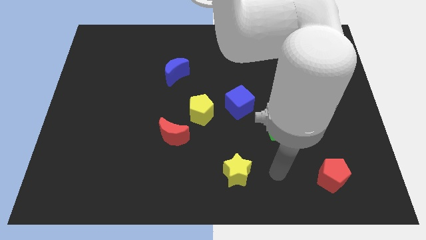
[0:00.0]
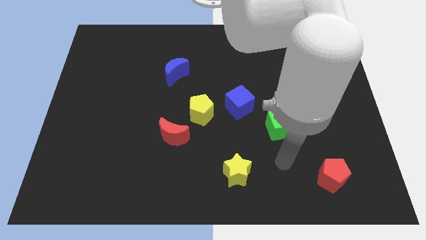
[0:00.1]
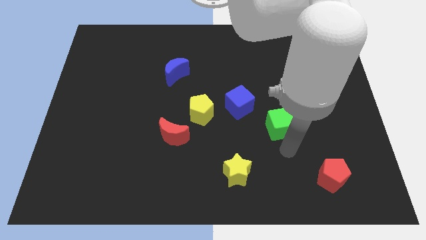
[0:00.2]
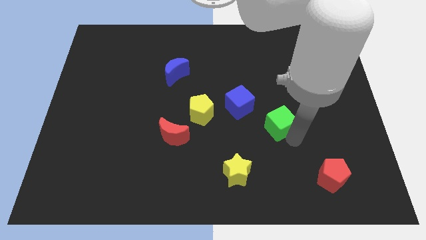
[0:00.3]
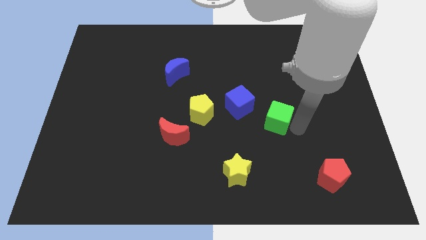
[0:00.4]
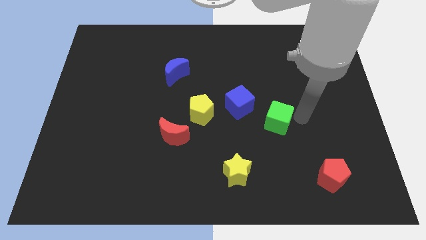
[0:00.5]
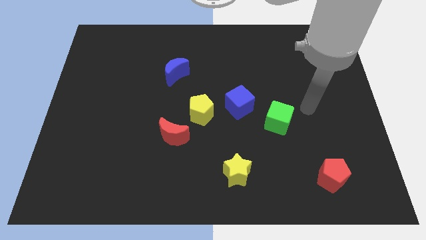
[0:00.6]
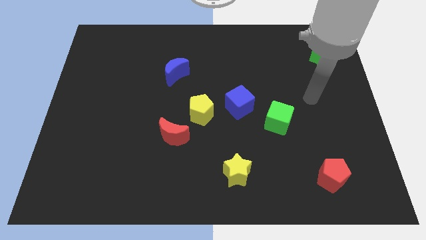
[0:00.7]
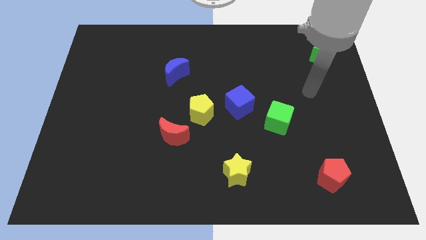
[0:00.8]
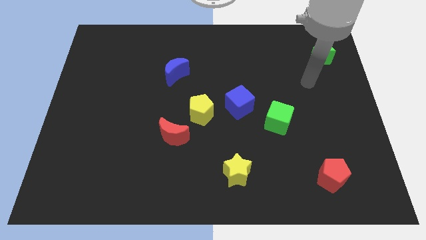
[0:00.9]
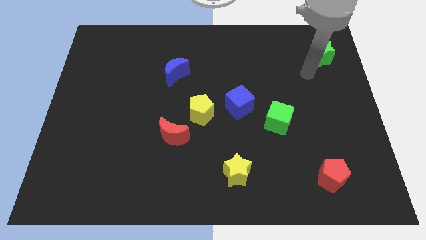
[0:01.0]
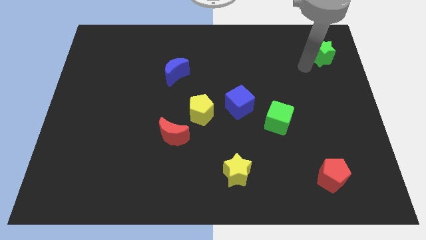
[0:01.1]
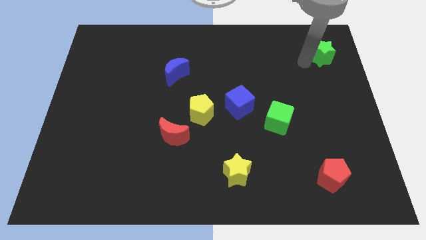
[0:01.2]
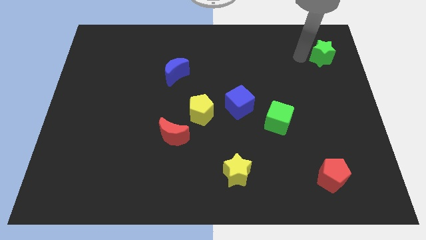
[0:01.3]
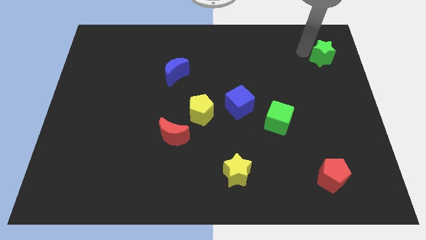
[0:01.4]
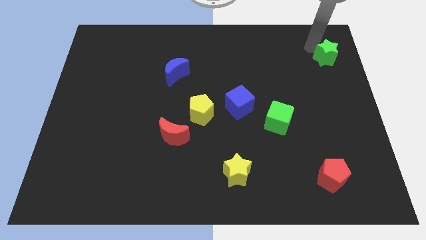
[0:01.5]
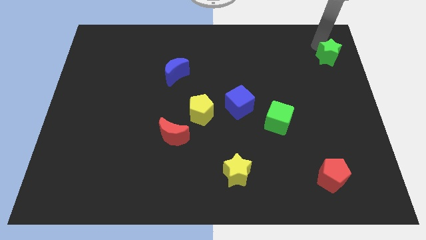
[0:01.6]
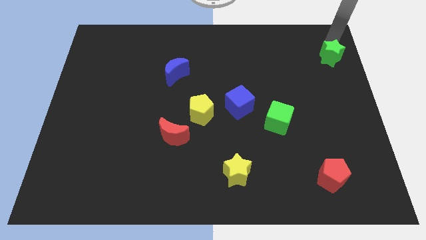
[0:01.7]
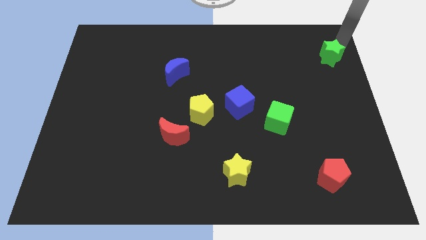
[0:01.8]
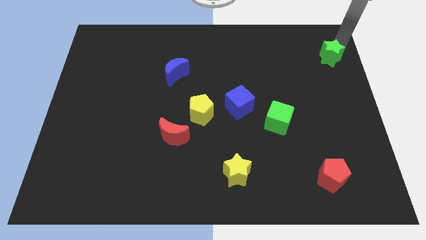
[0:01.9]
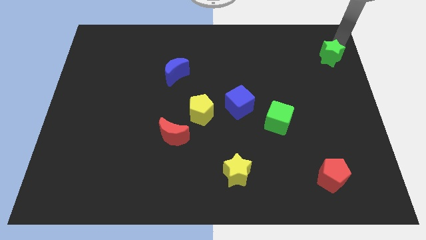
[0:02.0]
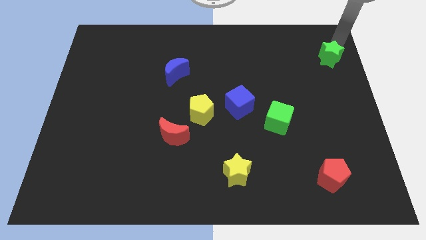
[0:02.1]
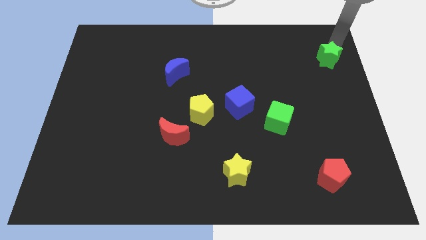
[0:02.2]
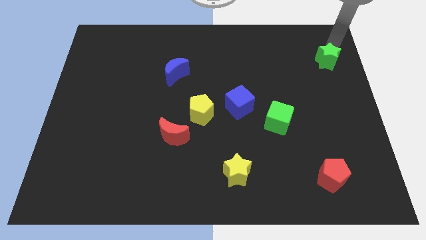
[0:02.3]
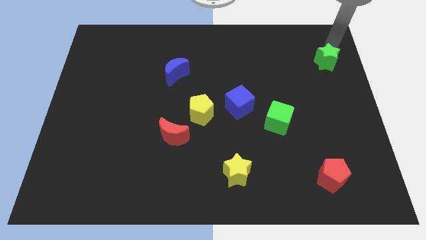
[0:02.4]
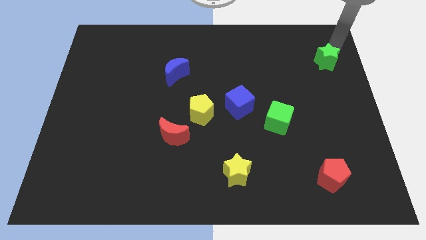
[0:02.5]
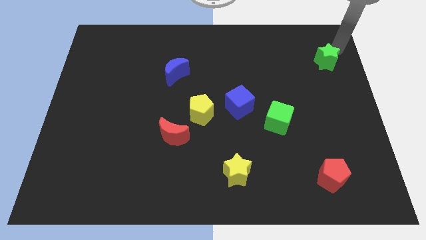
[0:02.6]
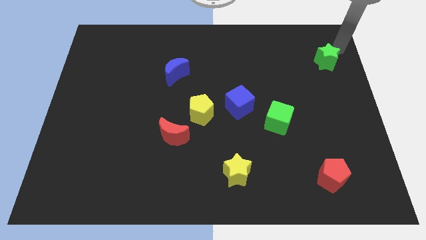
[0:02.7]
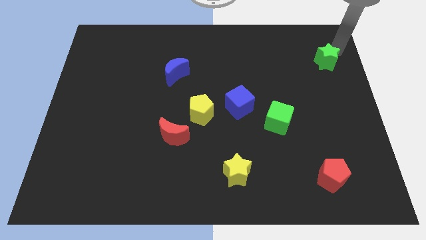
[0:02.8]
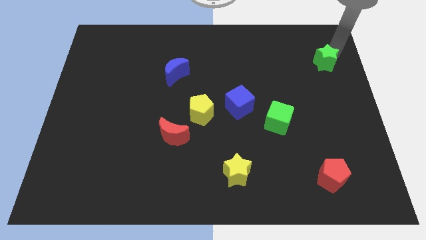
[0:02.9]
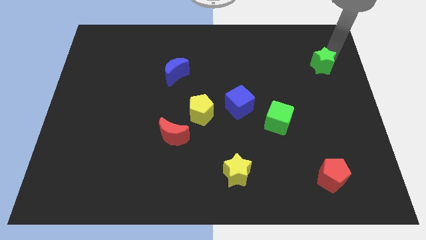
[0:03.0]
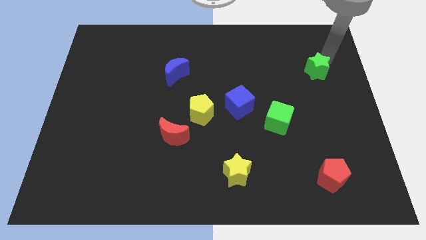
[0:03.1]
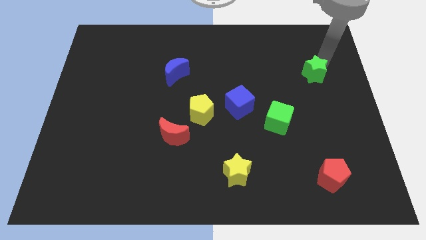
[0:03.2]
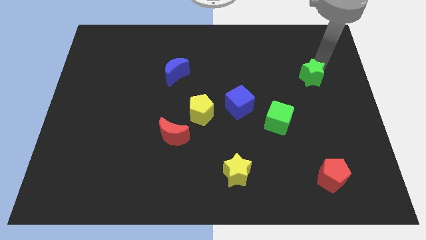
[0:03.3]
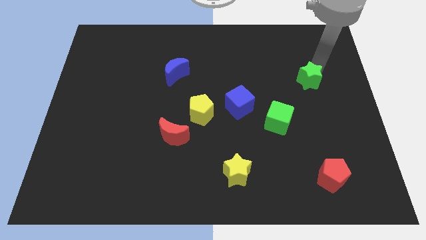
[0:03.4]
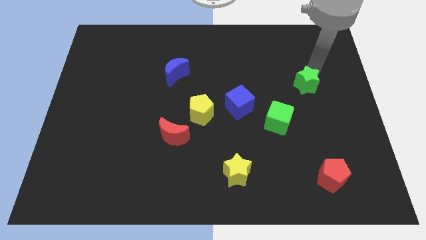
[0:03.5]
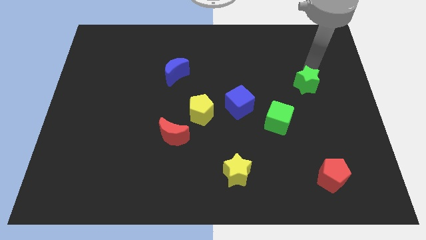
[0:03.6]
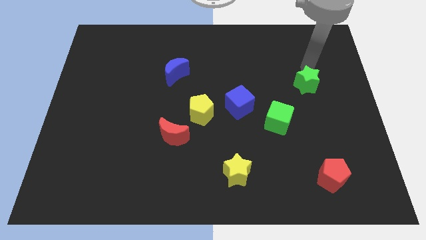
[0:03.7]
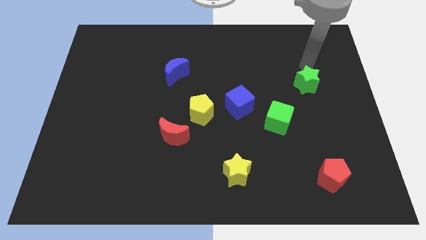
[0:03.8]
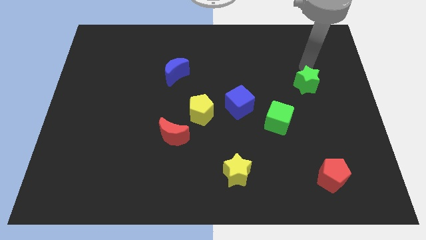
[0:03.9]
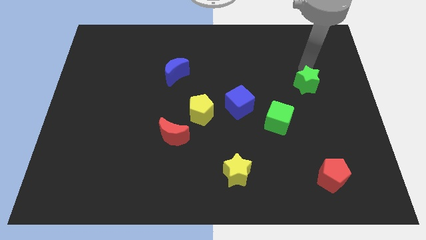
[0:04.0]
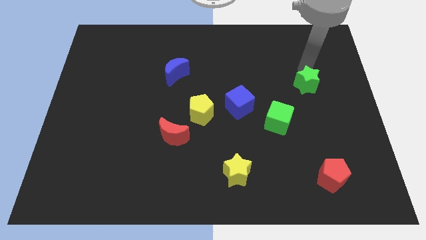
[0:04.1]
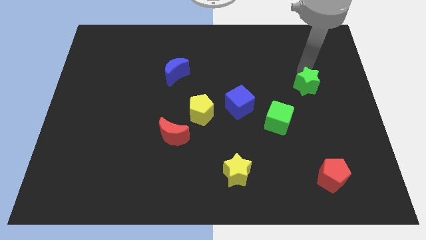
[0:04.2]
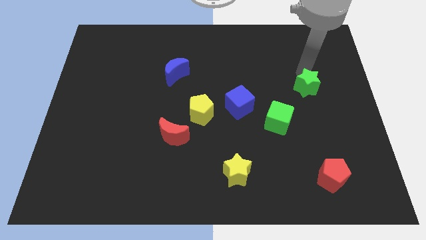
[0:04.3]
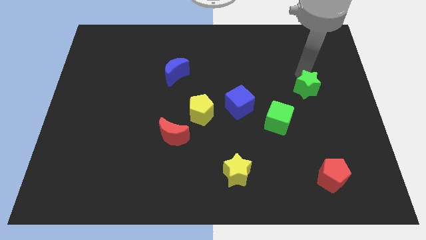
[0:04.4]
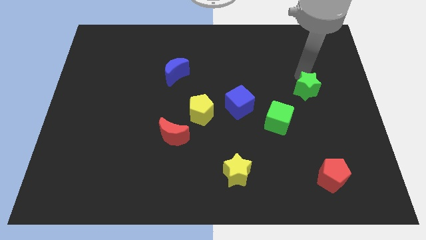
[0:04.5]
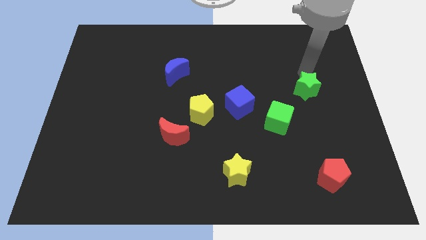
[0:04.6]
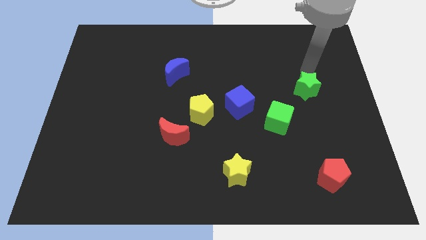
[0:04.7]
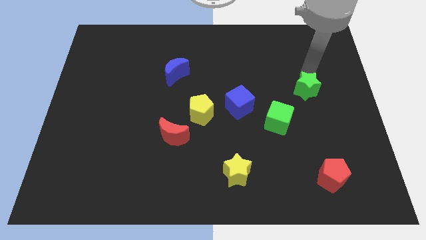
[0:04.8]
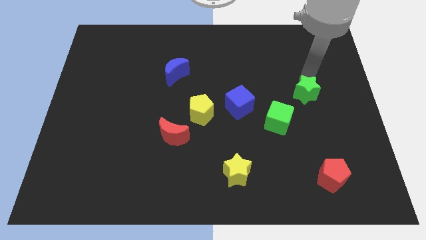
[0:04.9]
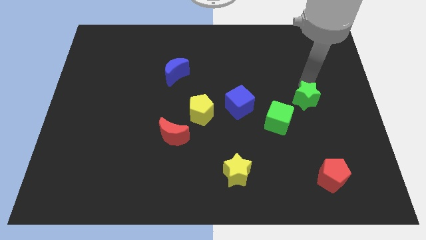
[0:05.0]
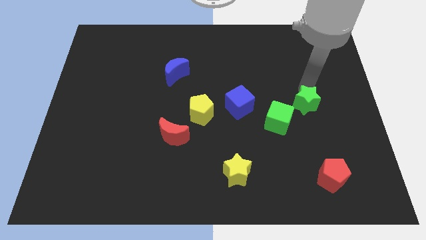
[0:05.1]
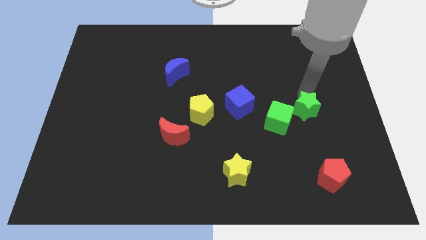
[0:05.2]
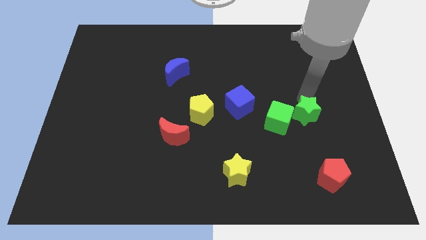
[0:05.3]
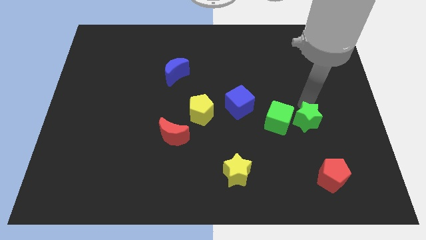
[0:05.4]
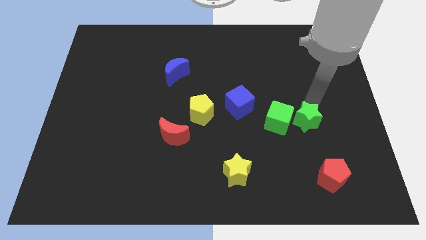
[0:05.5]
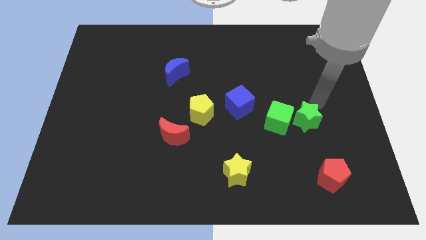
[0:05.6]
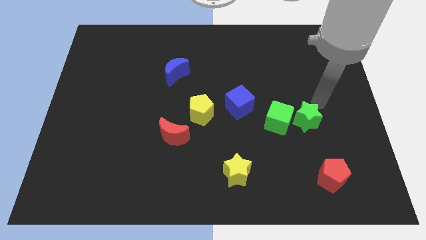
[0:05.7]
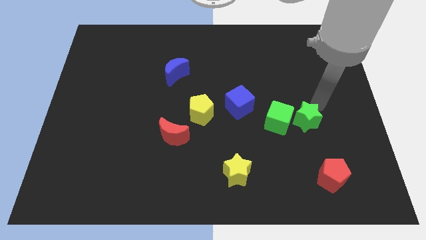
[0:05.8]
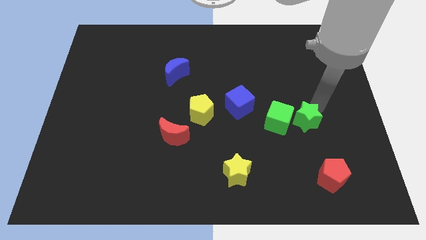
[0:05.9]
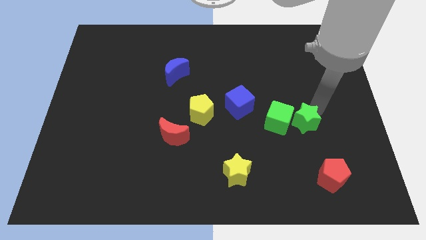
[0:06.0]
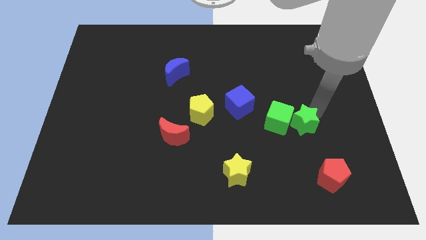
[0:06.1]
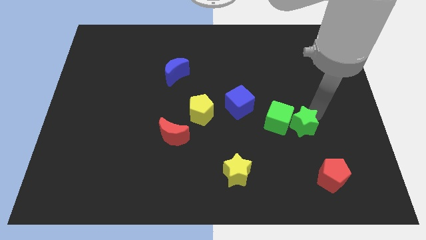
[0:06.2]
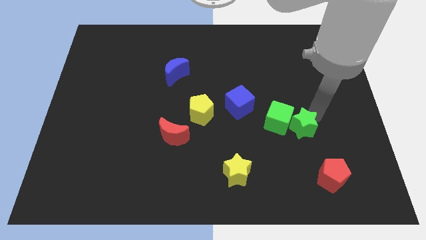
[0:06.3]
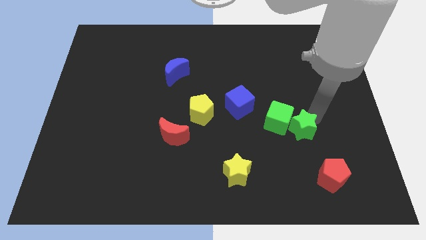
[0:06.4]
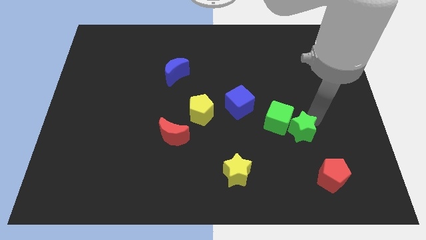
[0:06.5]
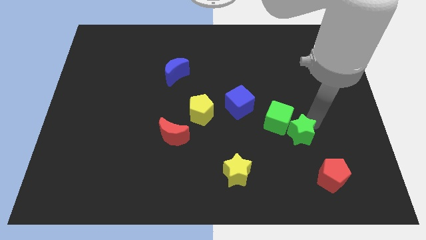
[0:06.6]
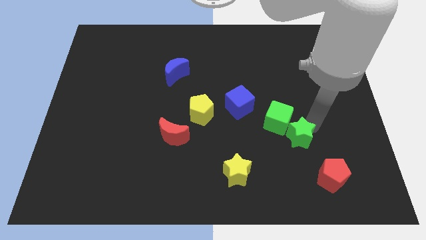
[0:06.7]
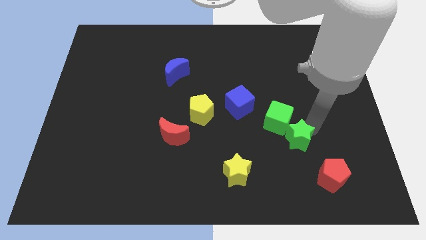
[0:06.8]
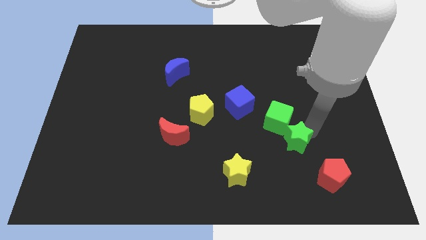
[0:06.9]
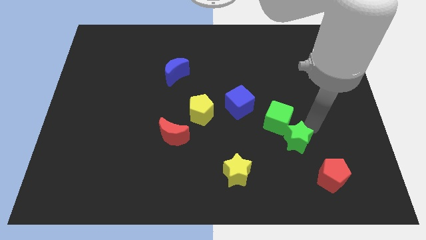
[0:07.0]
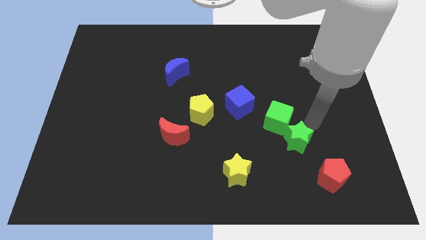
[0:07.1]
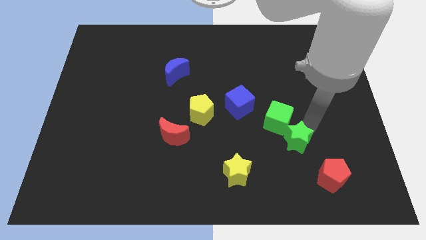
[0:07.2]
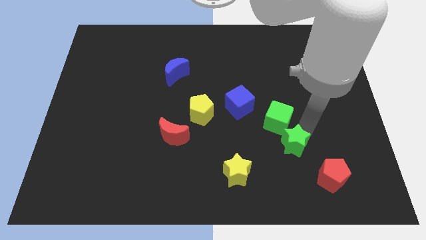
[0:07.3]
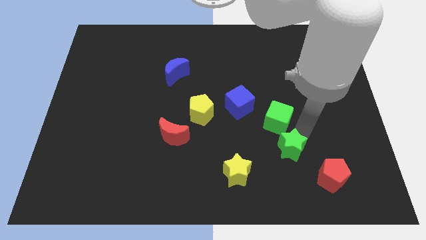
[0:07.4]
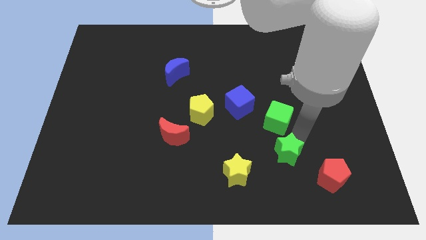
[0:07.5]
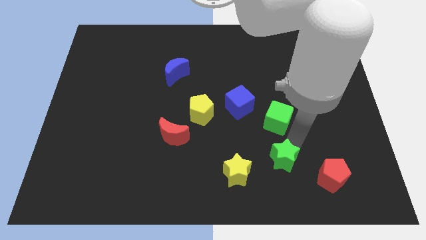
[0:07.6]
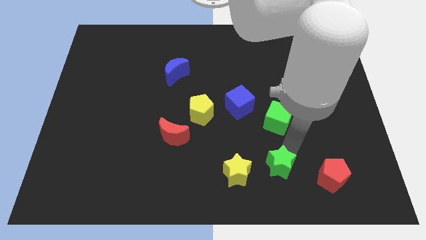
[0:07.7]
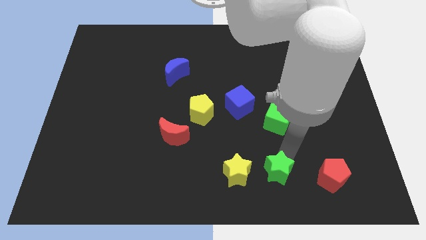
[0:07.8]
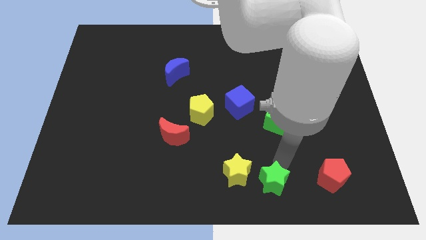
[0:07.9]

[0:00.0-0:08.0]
put the green star to the bottom side
